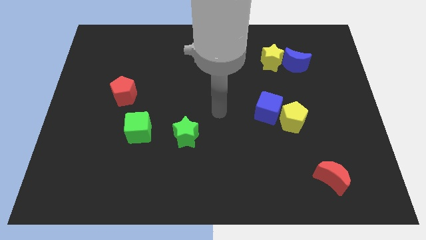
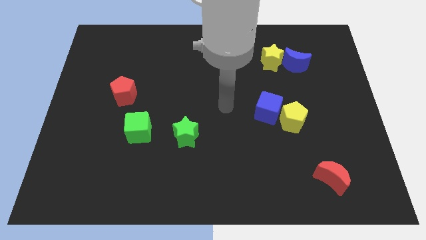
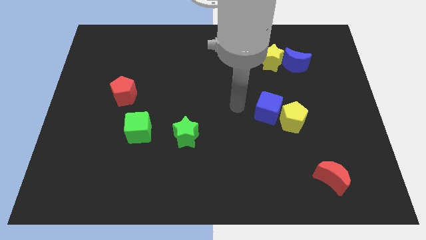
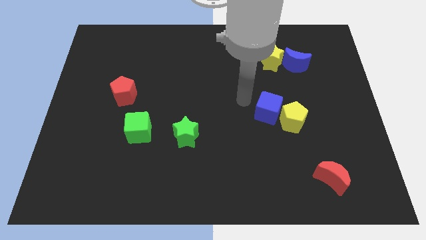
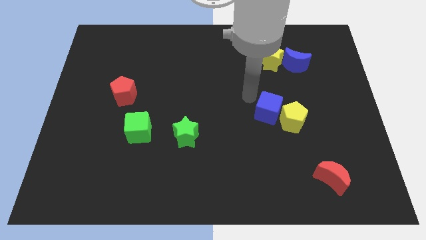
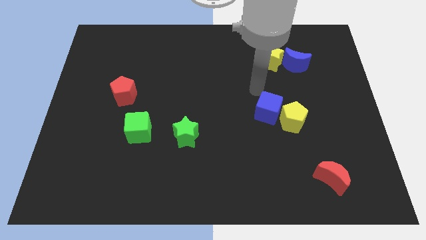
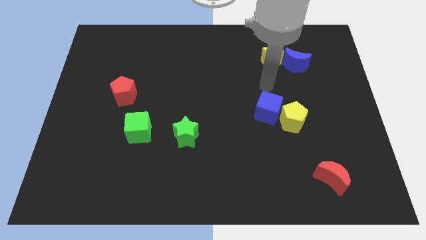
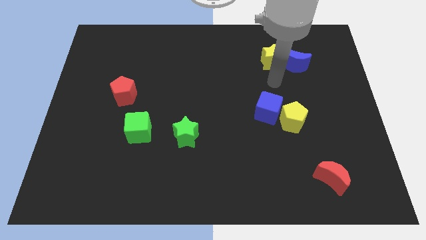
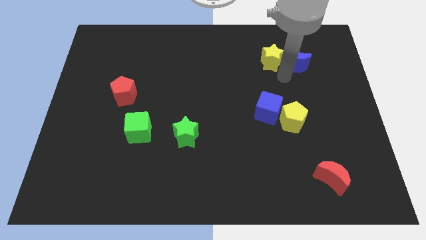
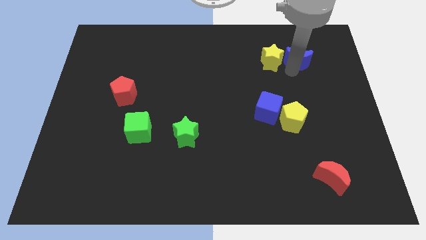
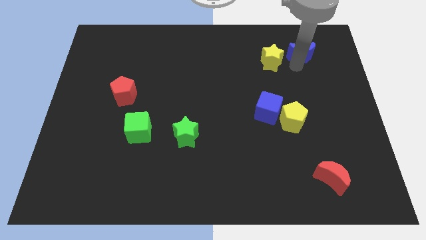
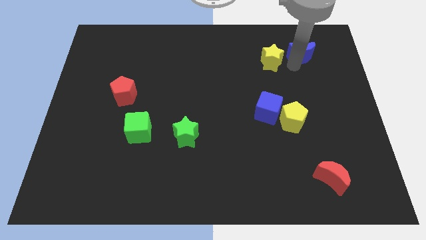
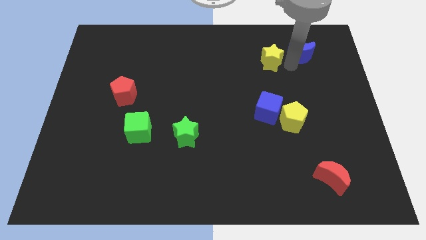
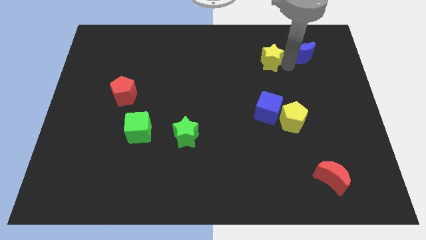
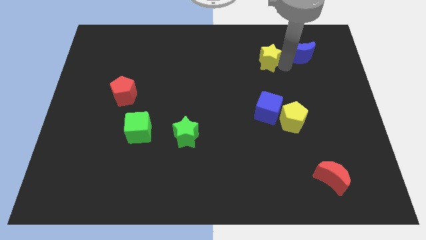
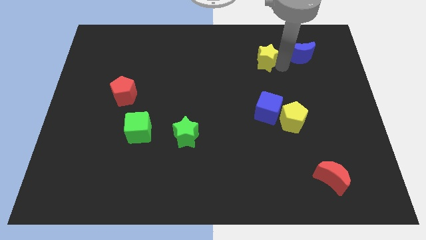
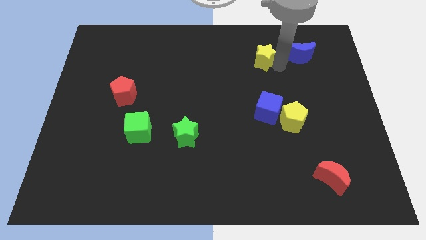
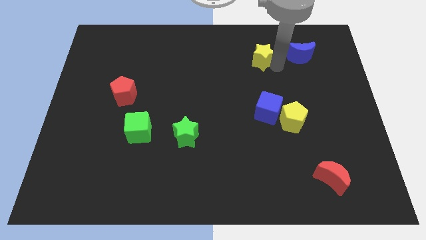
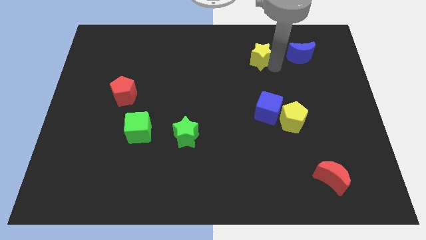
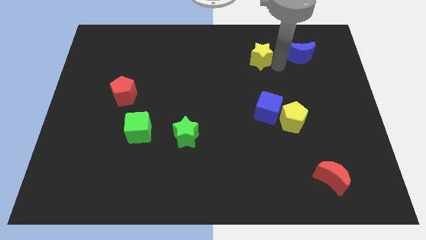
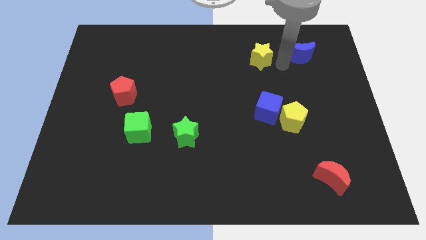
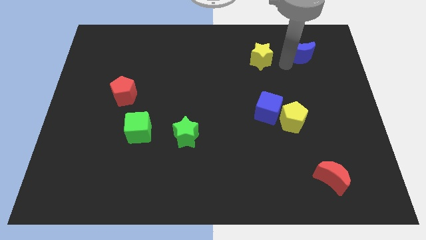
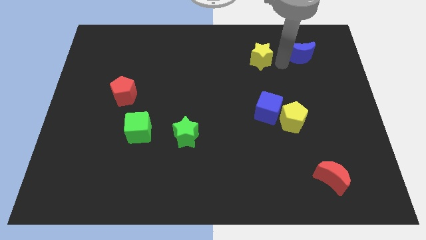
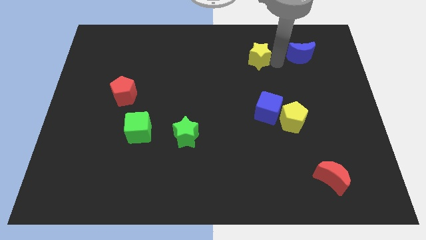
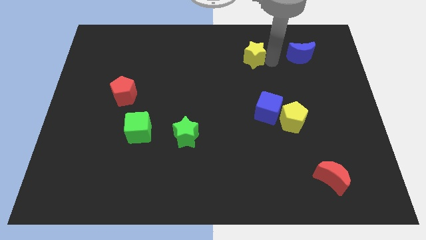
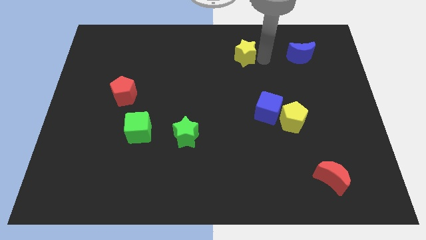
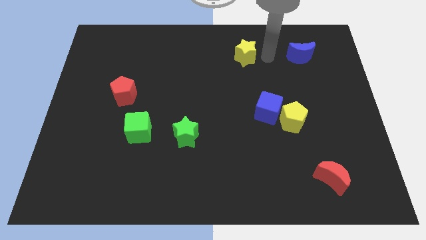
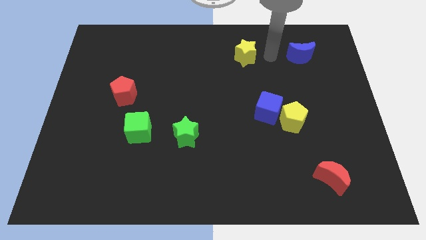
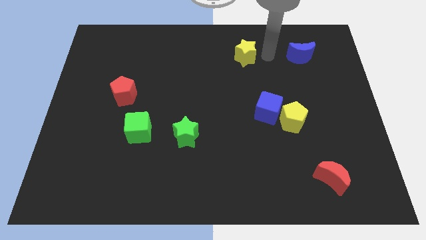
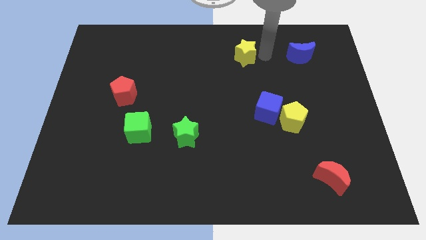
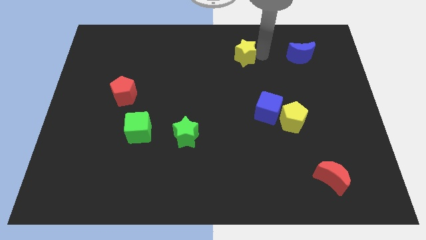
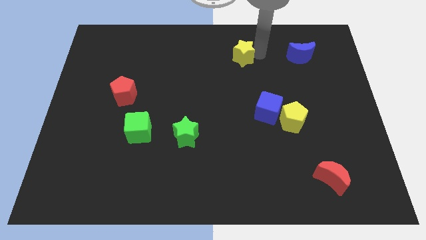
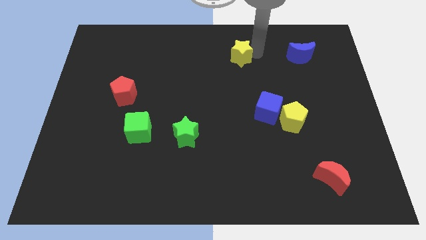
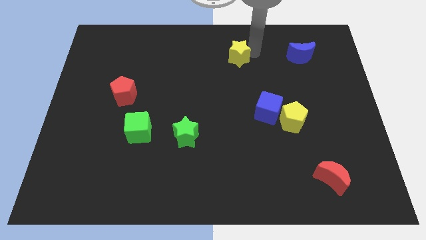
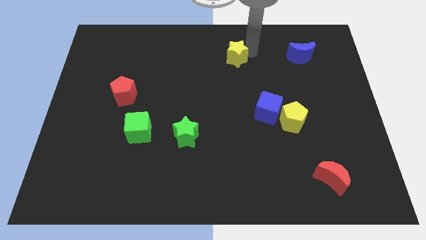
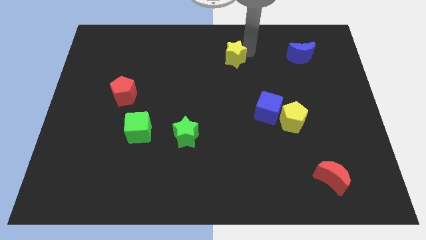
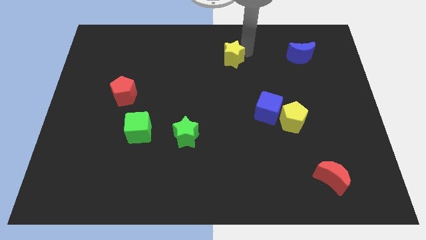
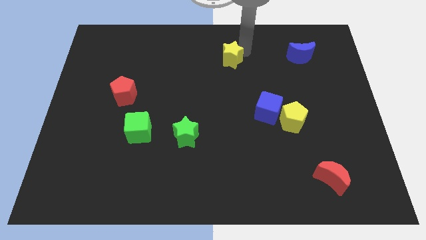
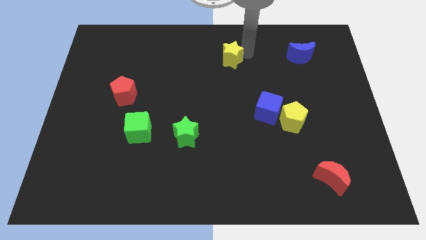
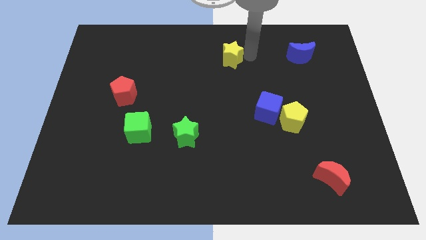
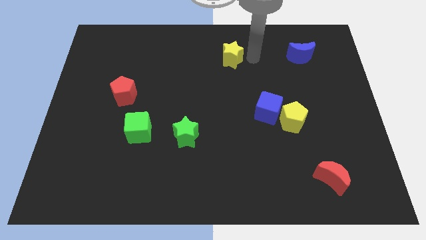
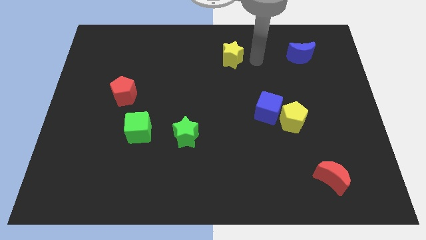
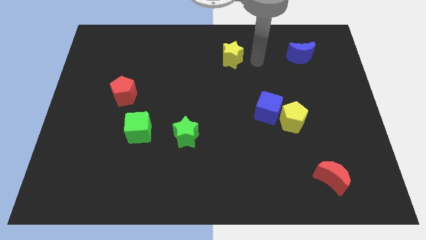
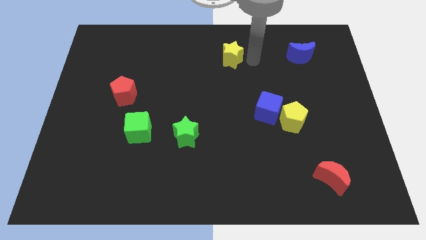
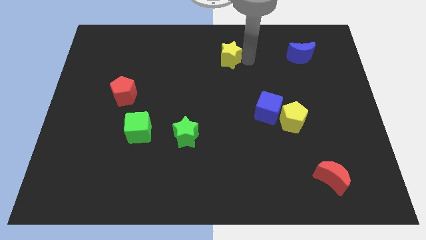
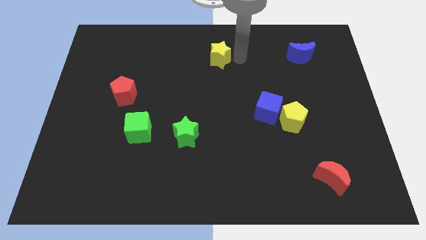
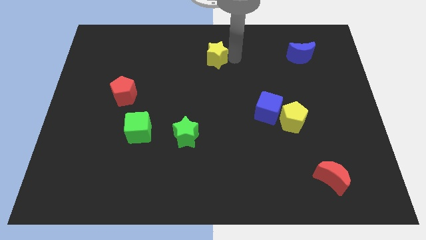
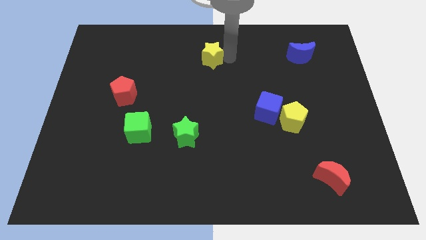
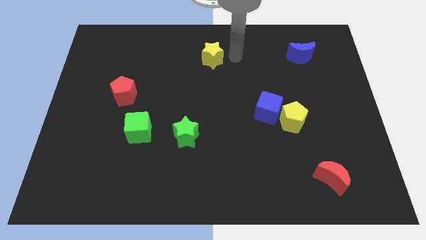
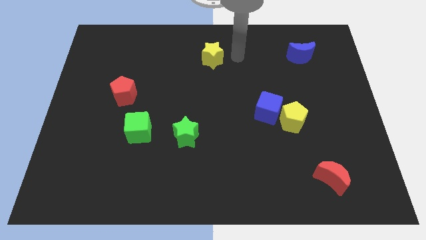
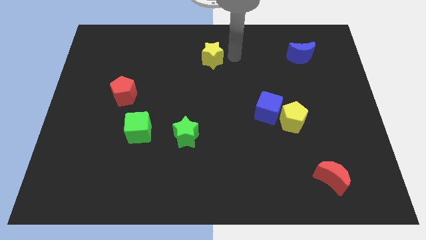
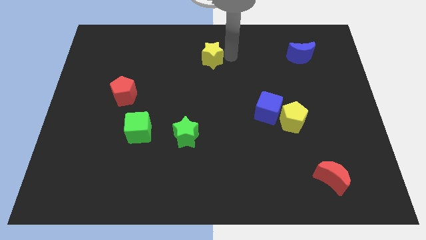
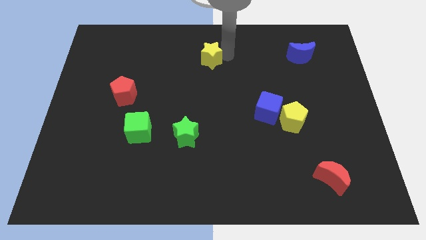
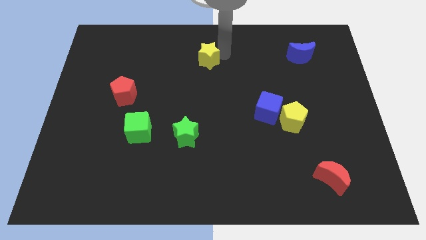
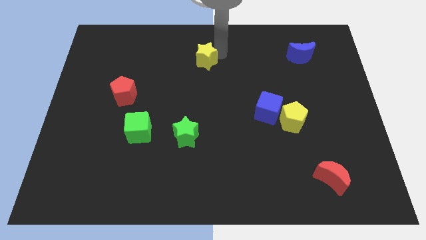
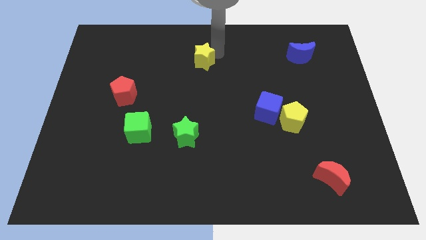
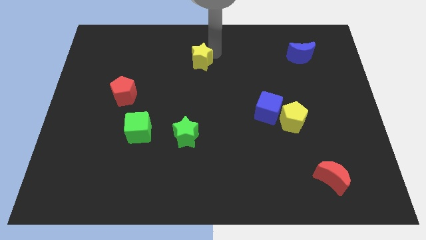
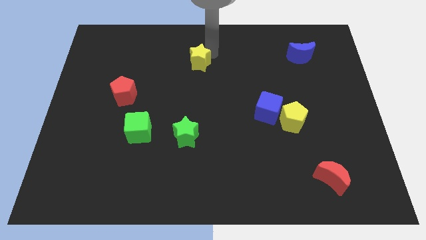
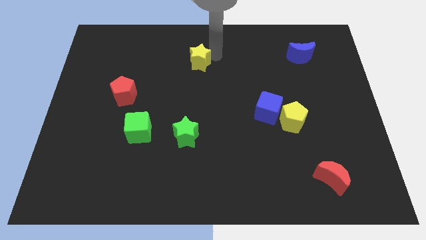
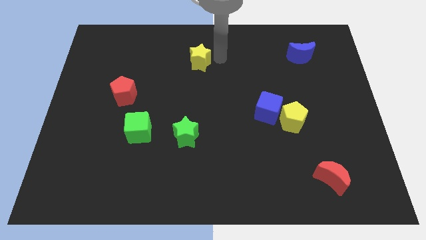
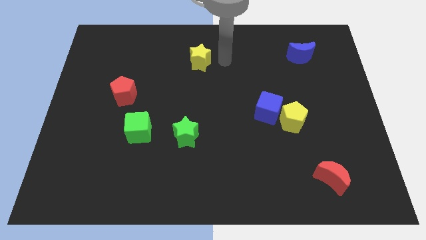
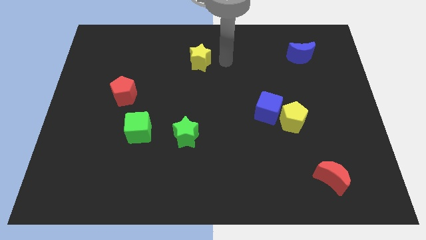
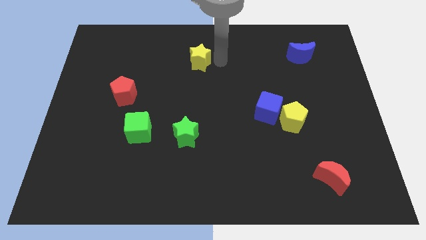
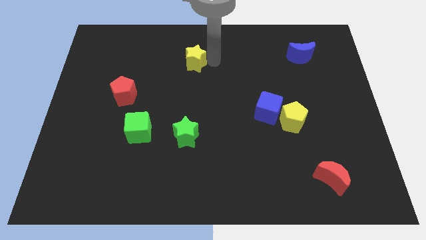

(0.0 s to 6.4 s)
push the yellow star left

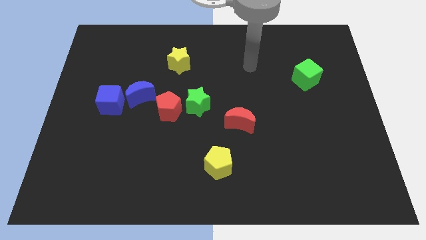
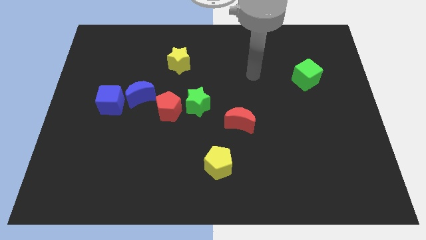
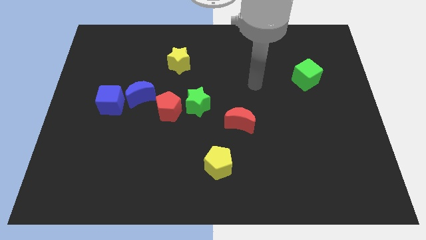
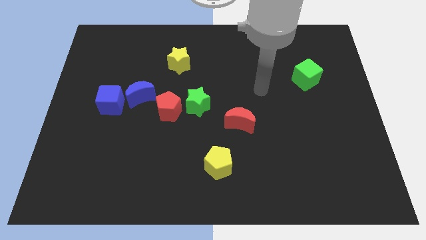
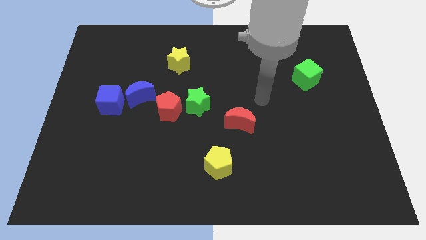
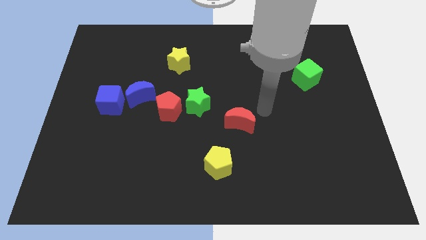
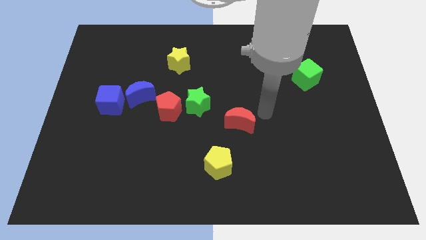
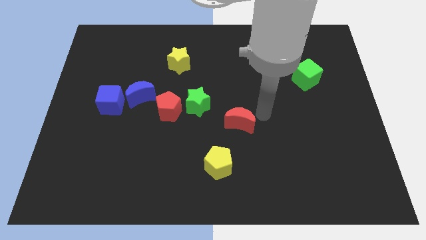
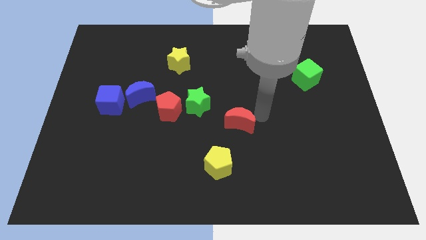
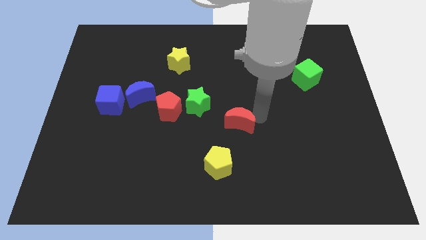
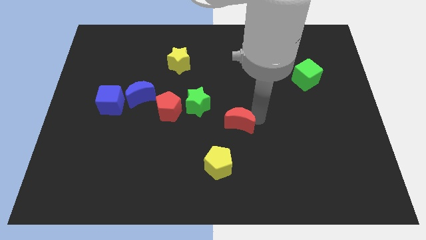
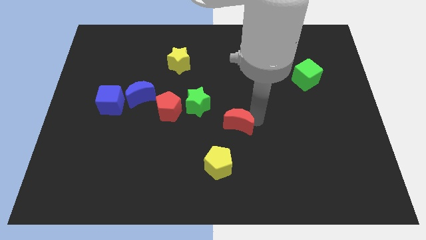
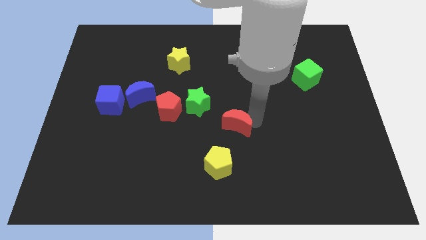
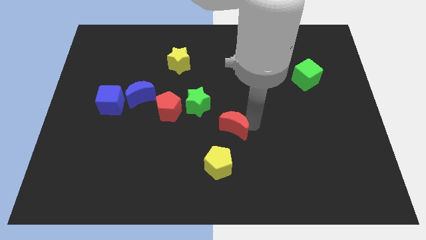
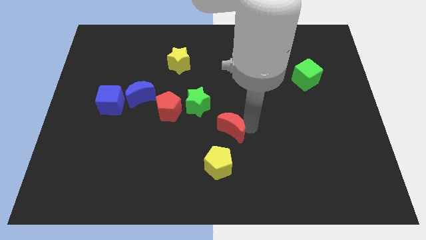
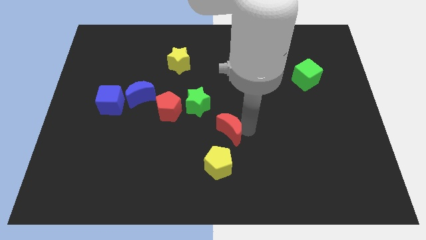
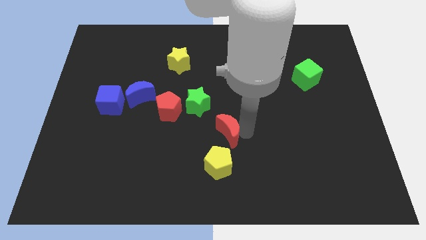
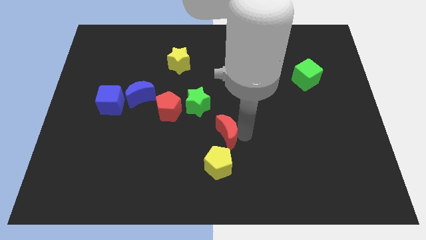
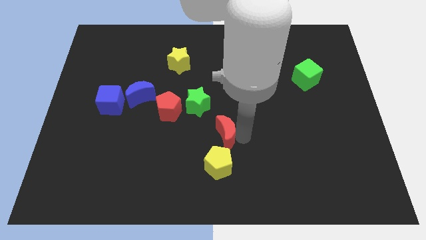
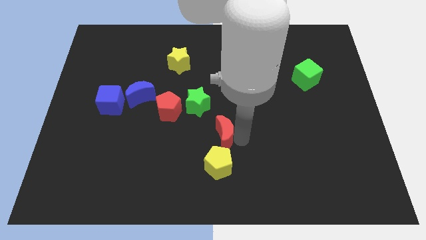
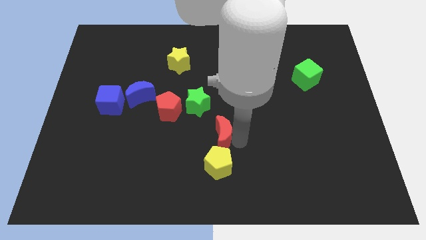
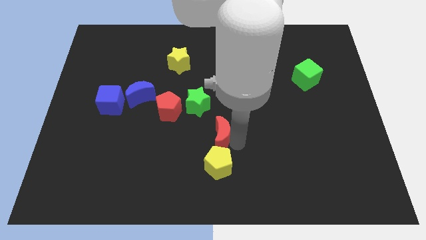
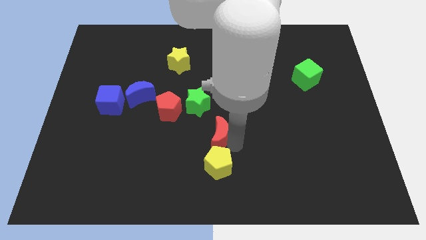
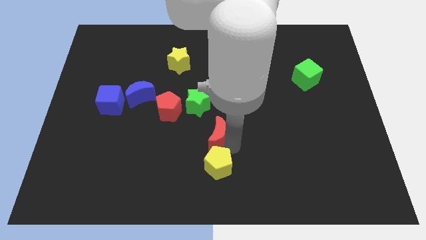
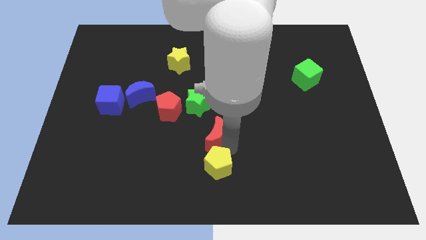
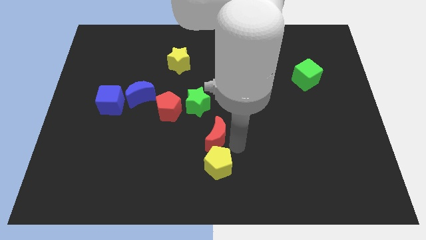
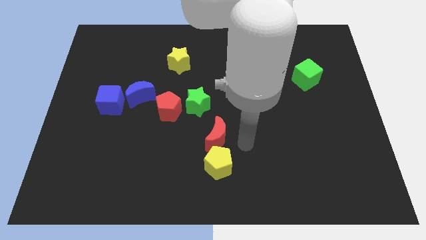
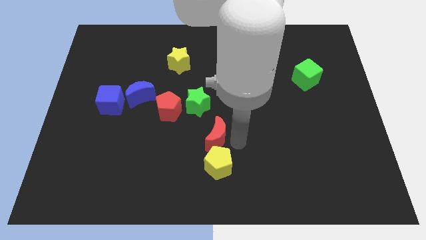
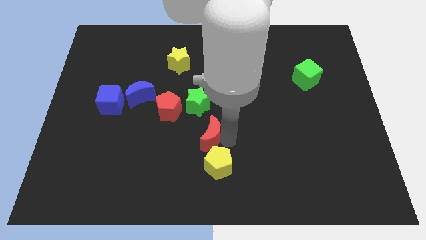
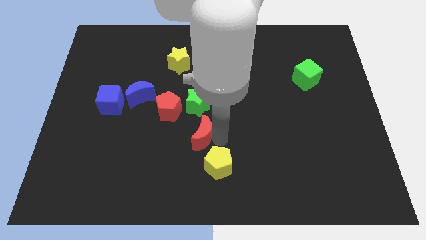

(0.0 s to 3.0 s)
slide the red moon a bit left
